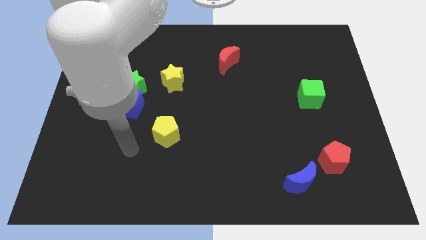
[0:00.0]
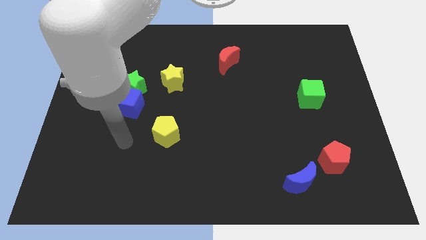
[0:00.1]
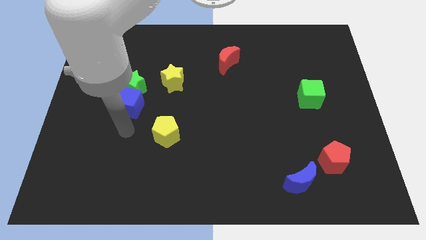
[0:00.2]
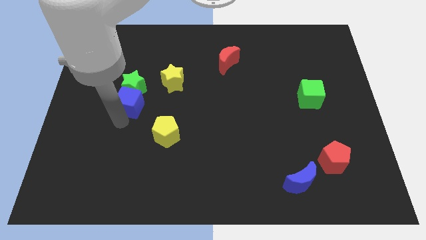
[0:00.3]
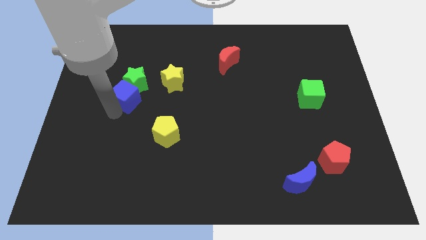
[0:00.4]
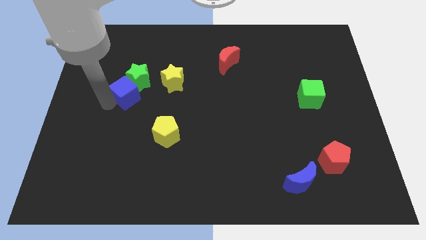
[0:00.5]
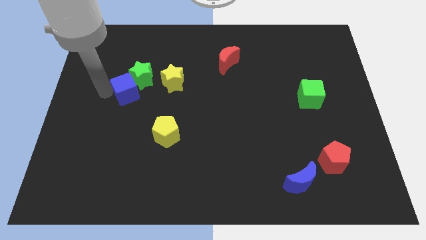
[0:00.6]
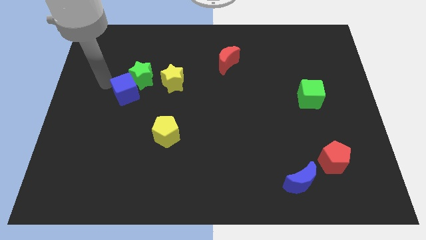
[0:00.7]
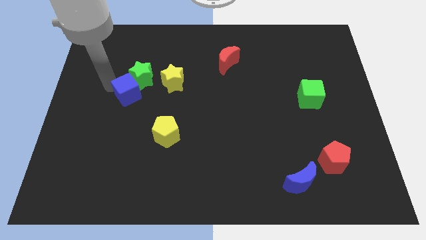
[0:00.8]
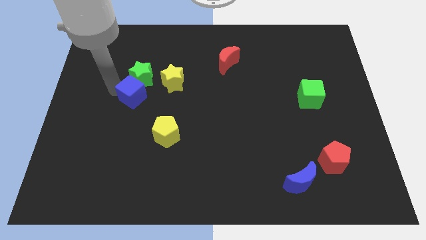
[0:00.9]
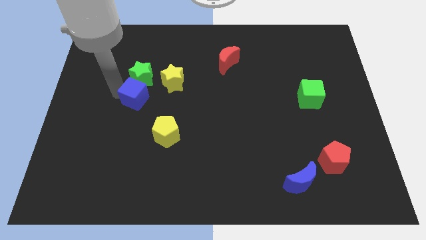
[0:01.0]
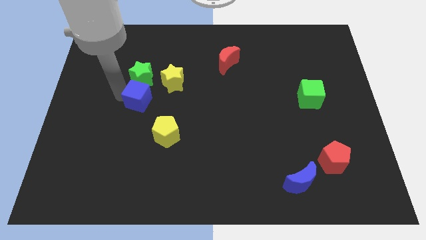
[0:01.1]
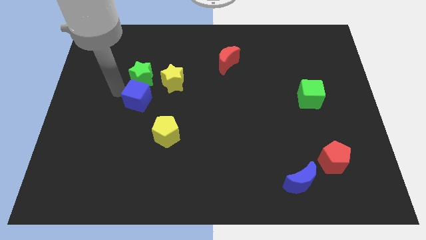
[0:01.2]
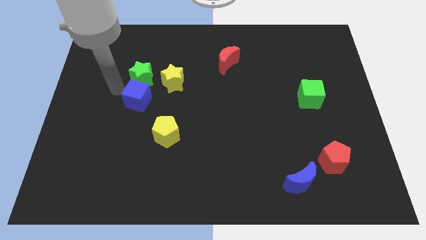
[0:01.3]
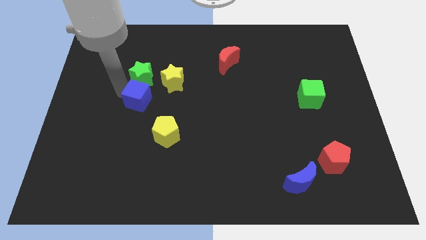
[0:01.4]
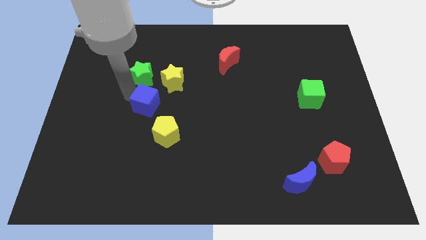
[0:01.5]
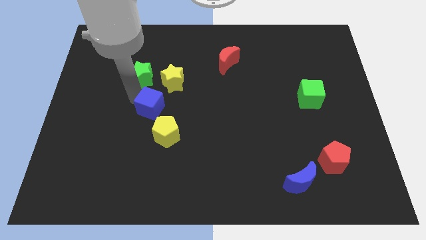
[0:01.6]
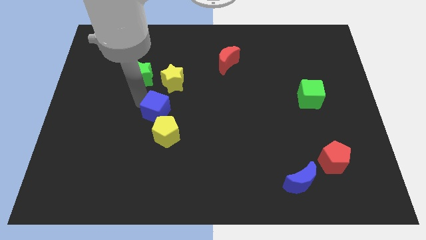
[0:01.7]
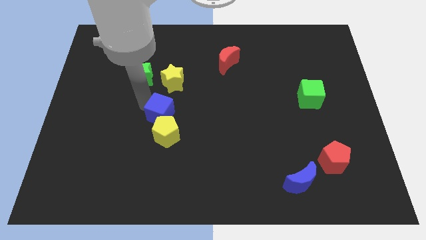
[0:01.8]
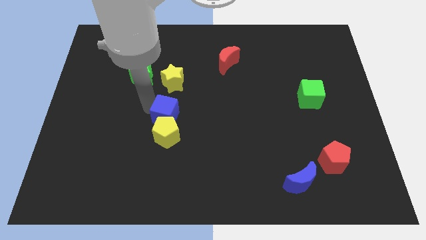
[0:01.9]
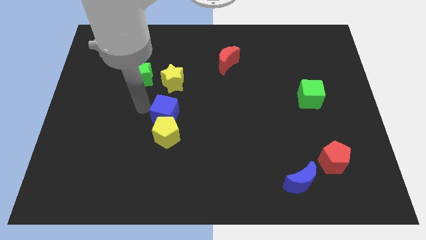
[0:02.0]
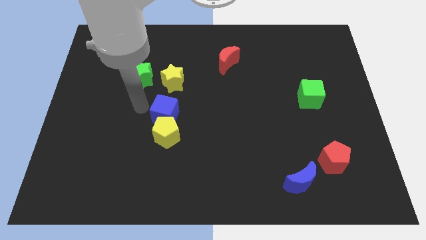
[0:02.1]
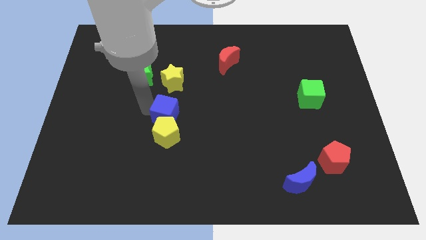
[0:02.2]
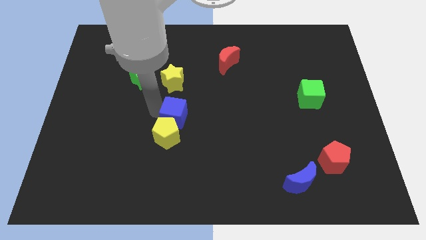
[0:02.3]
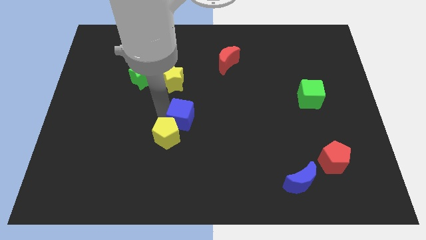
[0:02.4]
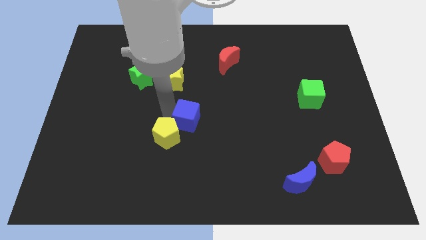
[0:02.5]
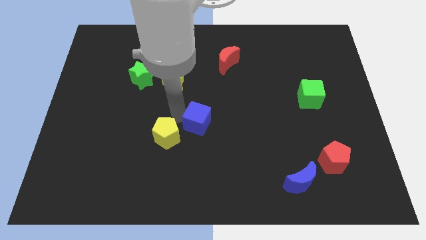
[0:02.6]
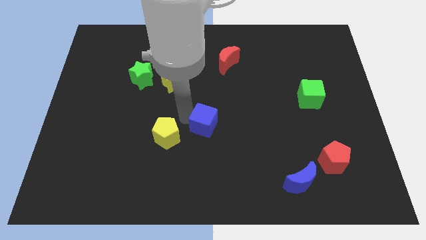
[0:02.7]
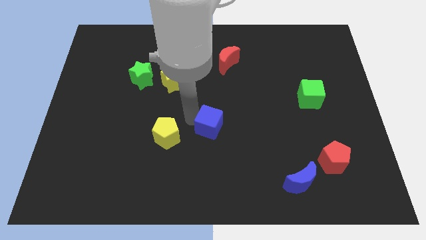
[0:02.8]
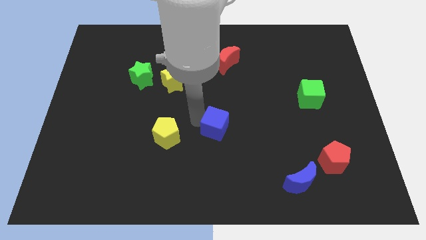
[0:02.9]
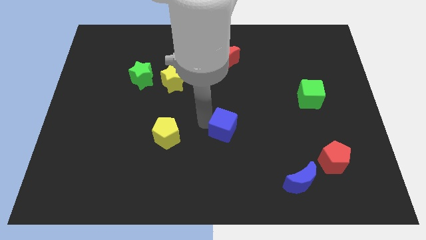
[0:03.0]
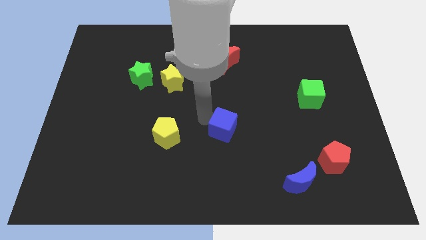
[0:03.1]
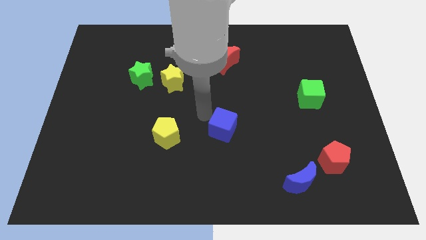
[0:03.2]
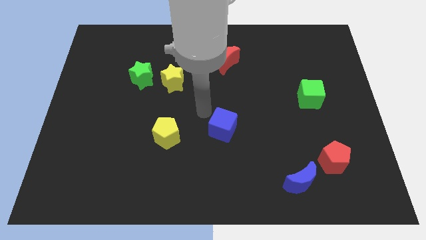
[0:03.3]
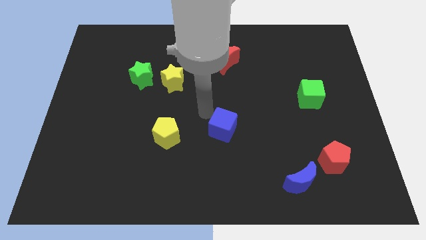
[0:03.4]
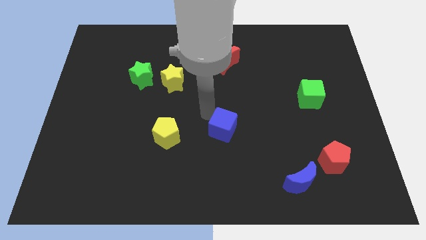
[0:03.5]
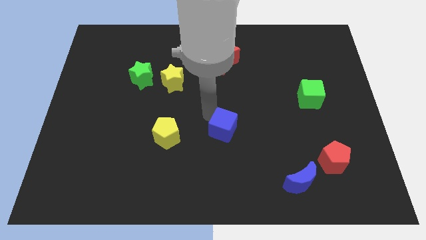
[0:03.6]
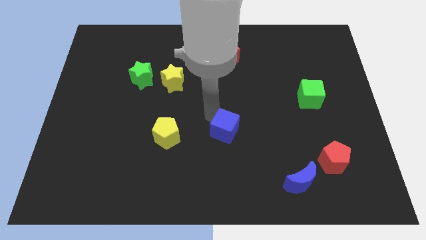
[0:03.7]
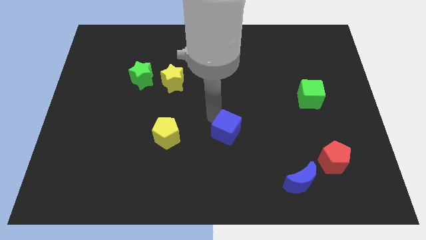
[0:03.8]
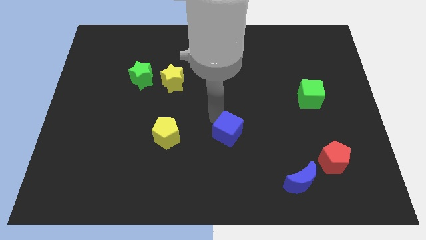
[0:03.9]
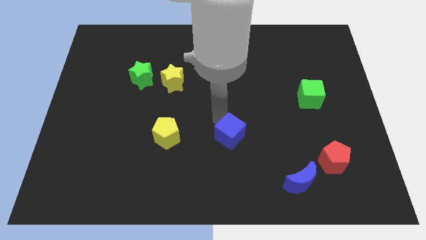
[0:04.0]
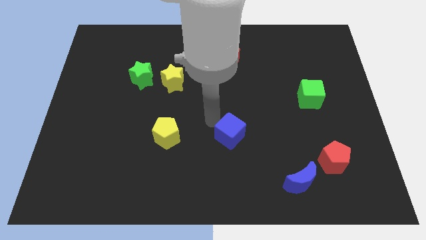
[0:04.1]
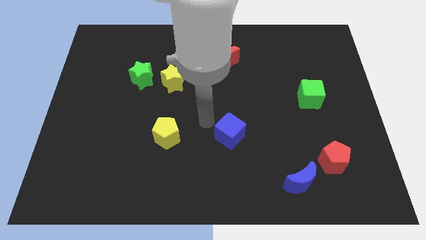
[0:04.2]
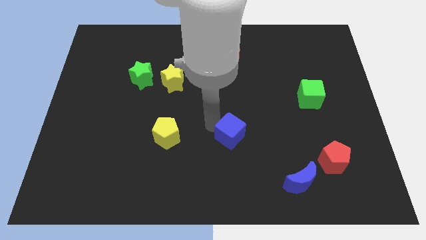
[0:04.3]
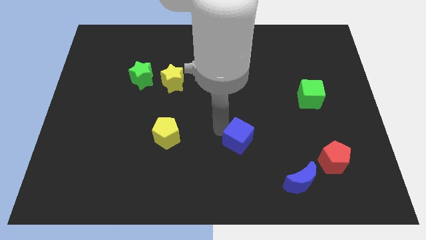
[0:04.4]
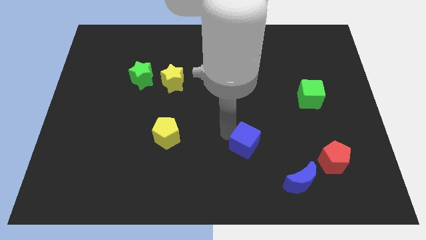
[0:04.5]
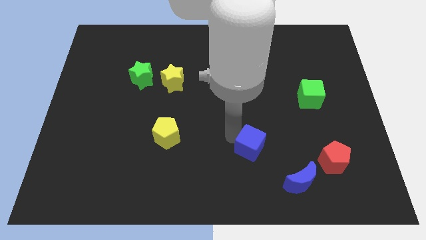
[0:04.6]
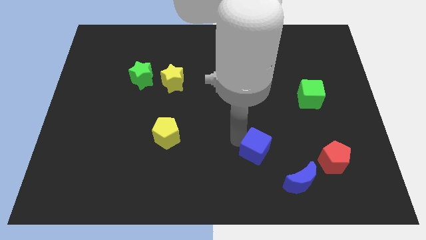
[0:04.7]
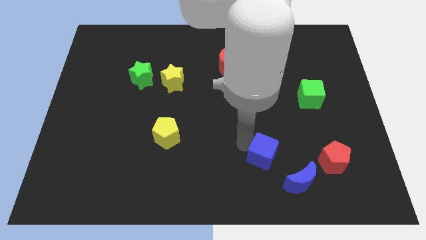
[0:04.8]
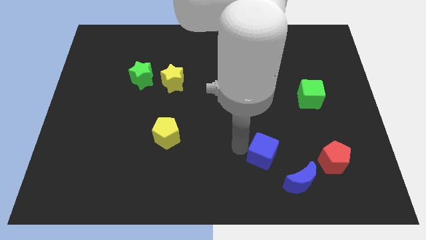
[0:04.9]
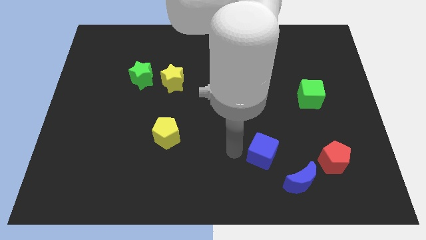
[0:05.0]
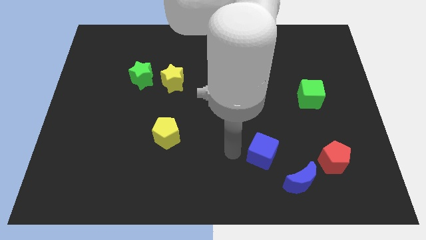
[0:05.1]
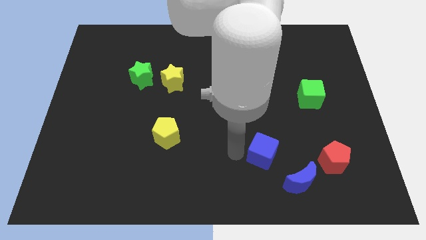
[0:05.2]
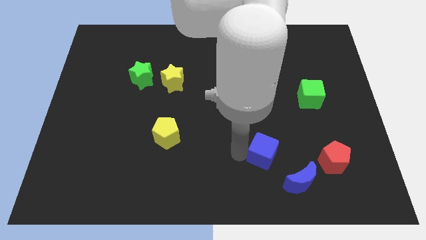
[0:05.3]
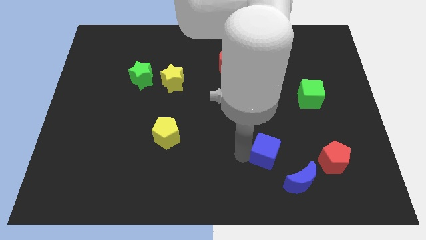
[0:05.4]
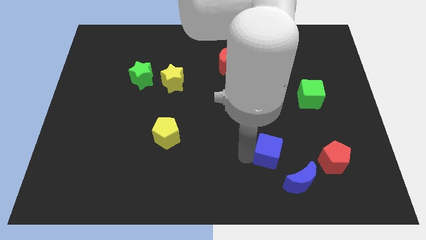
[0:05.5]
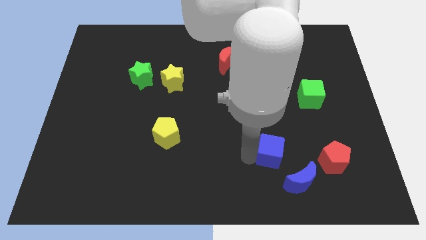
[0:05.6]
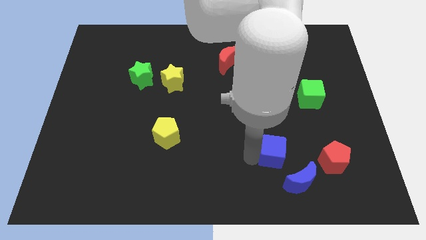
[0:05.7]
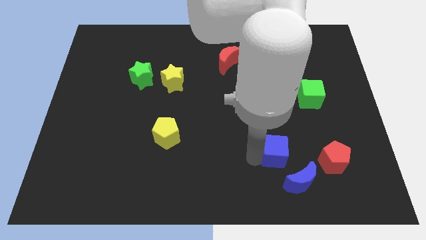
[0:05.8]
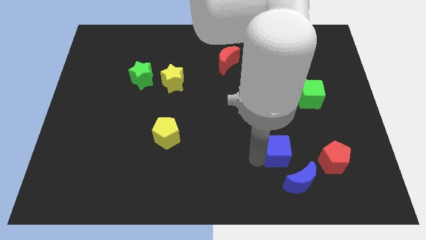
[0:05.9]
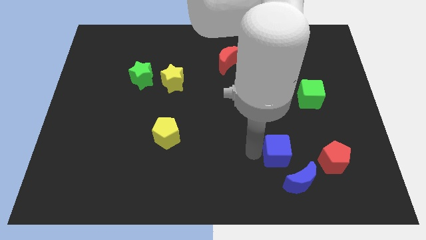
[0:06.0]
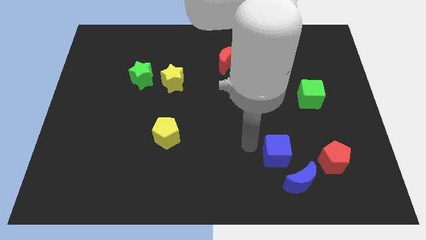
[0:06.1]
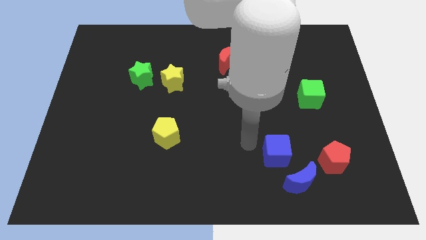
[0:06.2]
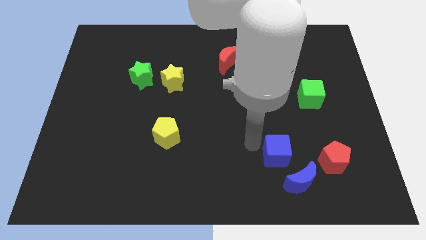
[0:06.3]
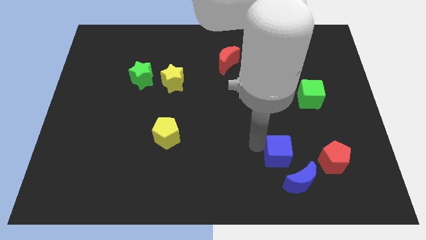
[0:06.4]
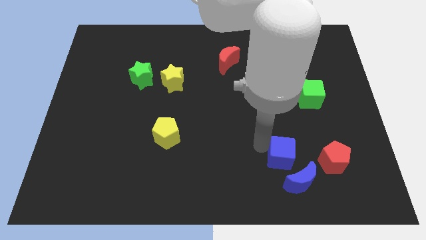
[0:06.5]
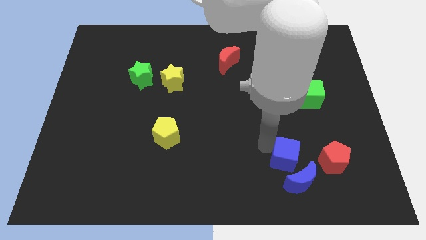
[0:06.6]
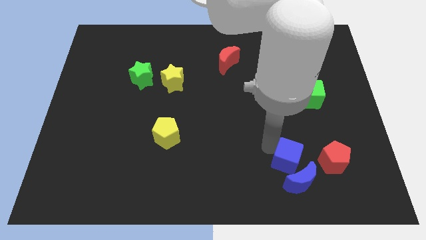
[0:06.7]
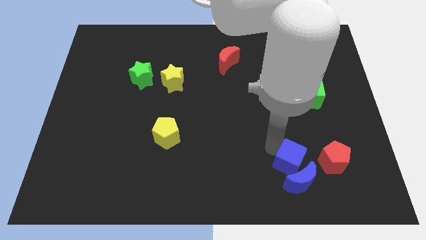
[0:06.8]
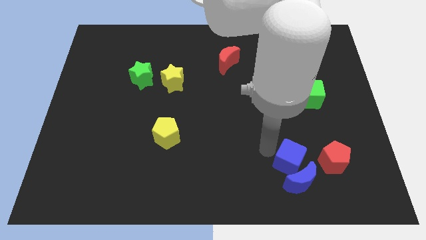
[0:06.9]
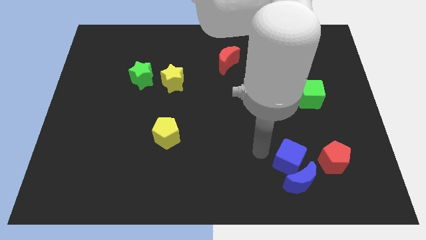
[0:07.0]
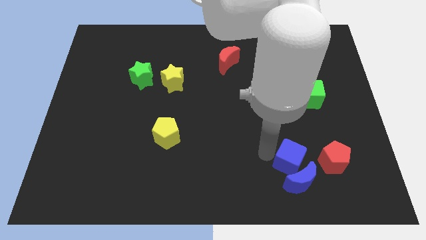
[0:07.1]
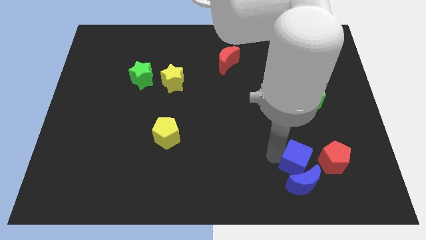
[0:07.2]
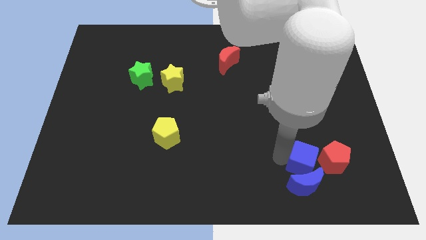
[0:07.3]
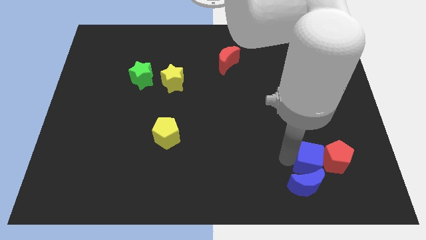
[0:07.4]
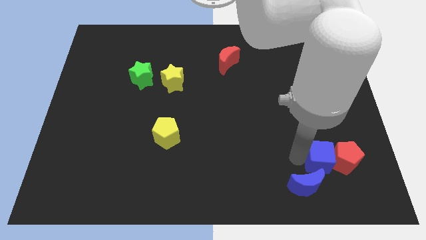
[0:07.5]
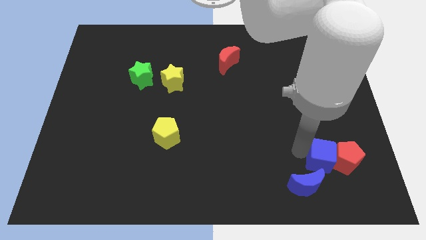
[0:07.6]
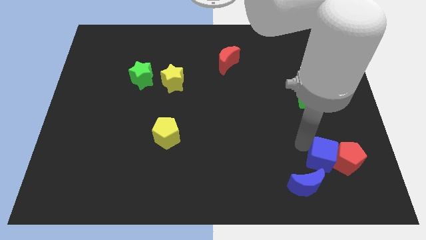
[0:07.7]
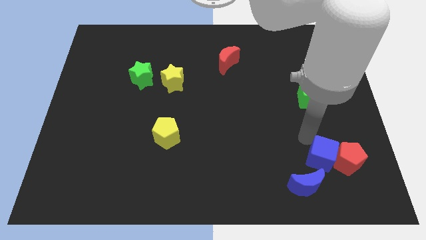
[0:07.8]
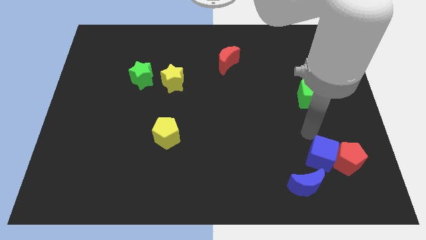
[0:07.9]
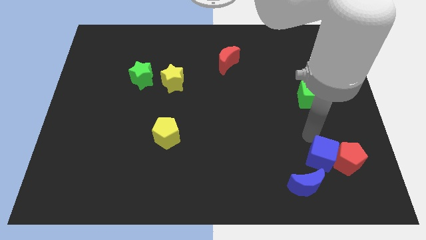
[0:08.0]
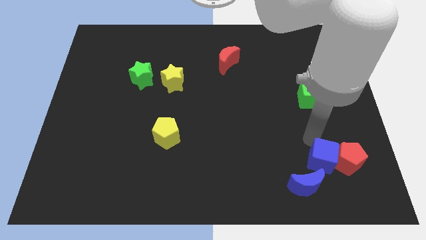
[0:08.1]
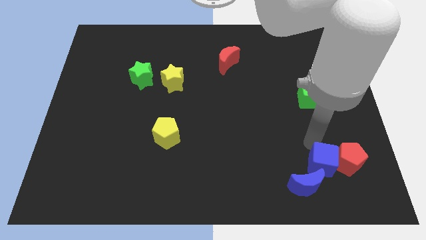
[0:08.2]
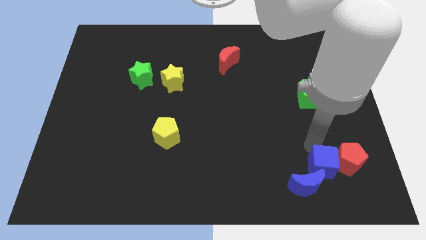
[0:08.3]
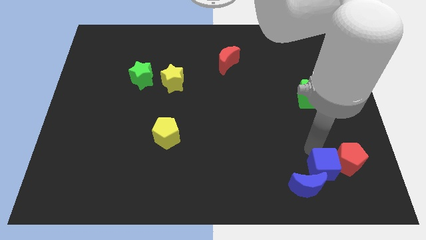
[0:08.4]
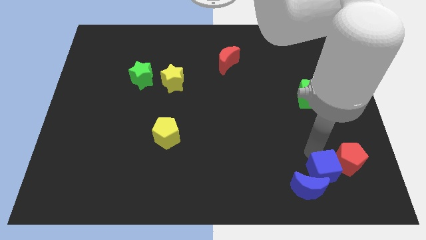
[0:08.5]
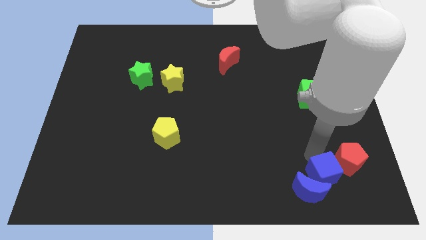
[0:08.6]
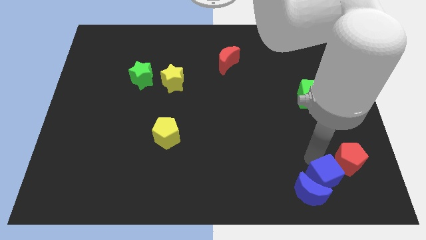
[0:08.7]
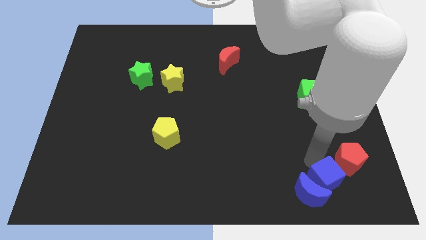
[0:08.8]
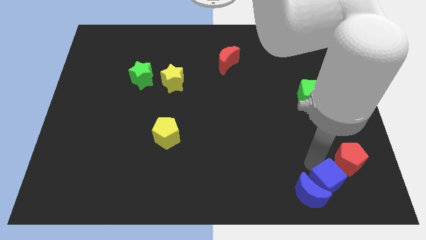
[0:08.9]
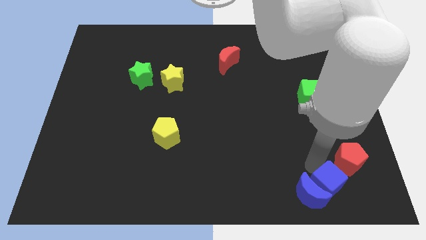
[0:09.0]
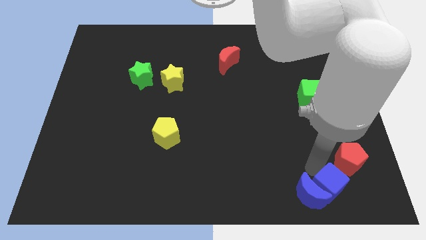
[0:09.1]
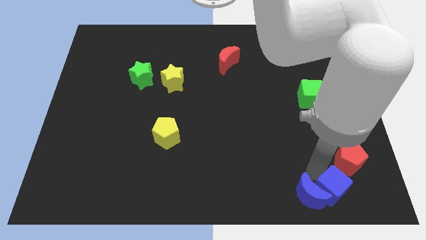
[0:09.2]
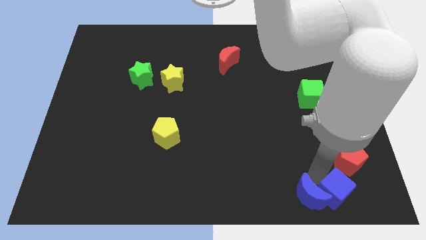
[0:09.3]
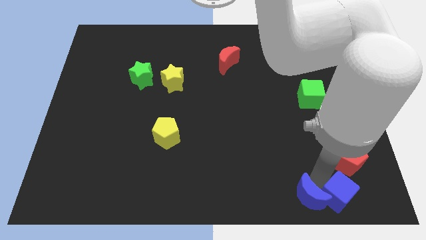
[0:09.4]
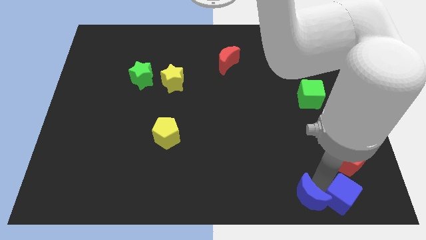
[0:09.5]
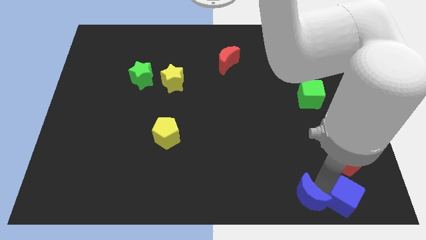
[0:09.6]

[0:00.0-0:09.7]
push the blue cube to the bottom right corner
